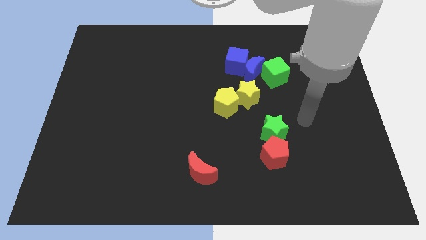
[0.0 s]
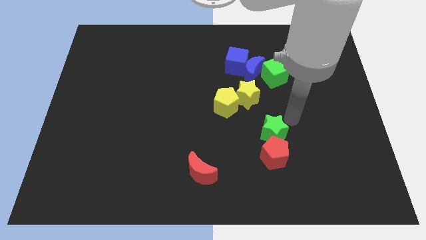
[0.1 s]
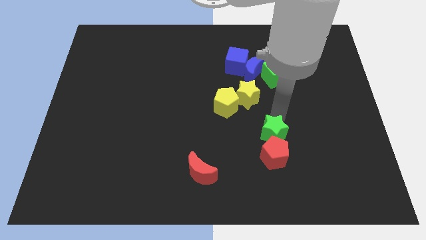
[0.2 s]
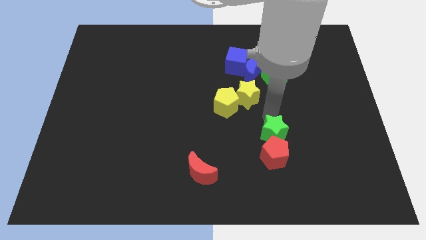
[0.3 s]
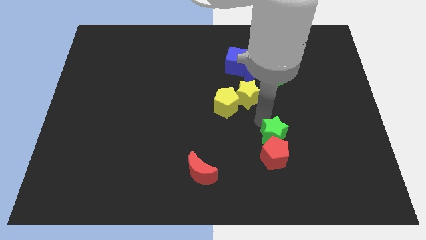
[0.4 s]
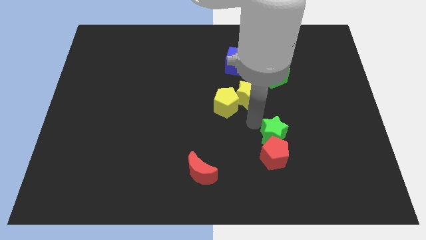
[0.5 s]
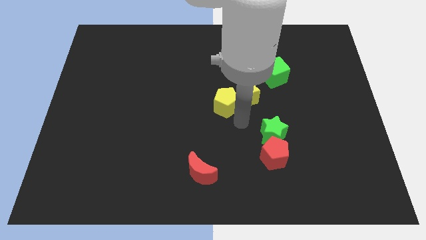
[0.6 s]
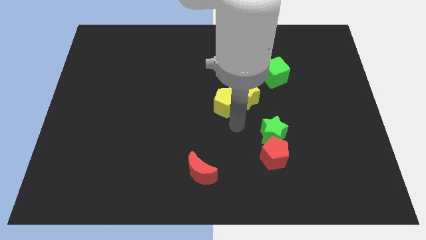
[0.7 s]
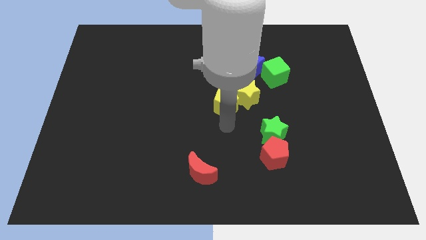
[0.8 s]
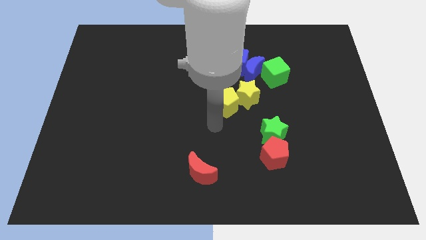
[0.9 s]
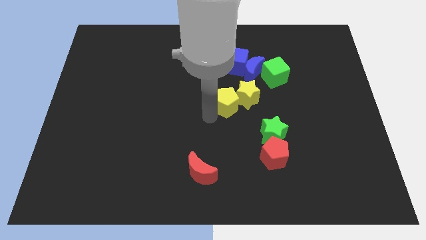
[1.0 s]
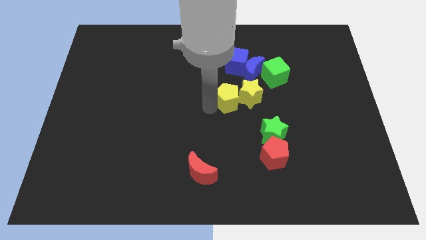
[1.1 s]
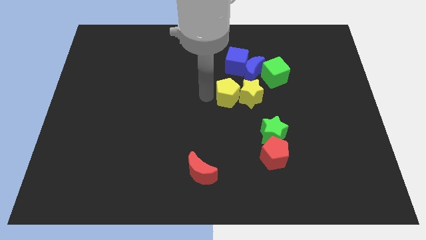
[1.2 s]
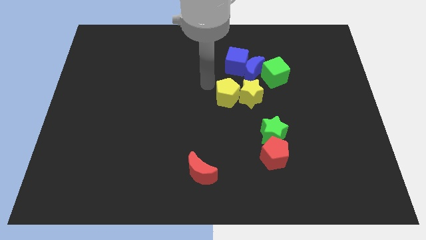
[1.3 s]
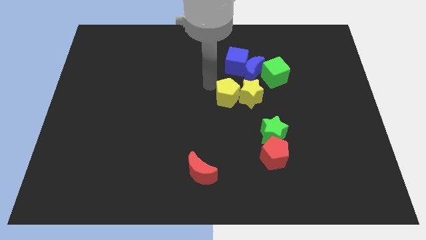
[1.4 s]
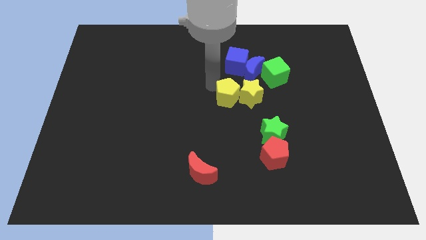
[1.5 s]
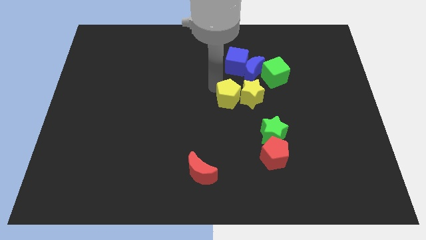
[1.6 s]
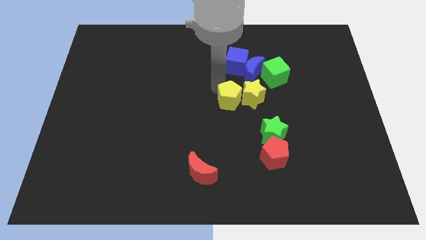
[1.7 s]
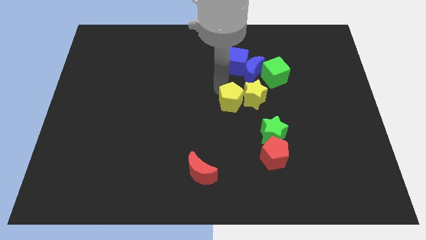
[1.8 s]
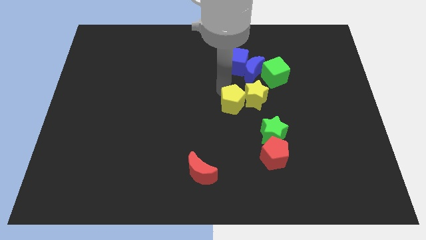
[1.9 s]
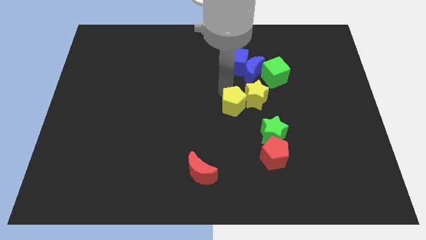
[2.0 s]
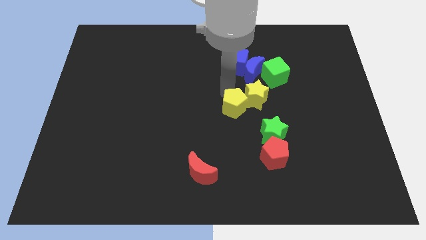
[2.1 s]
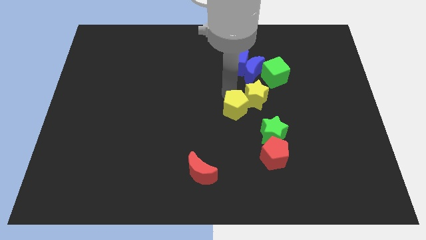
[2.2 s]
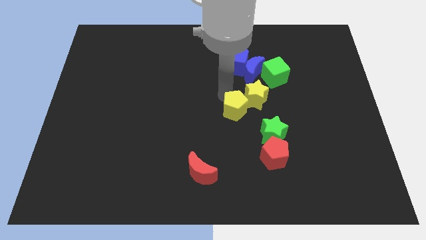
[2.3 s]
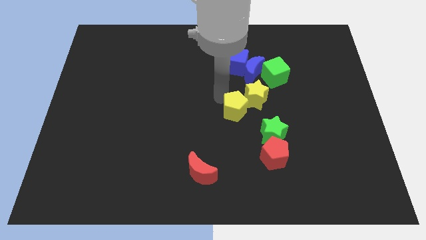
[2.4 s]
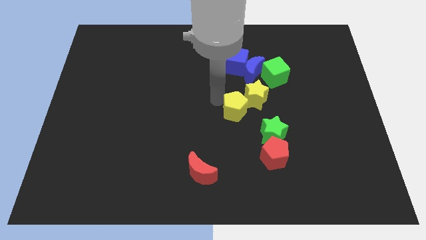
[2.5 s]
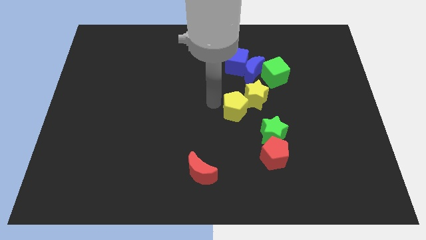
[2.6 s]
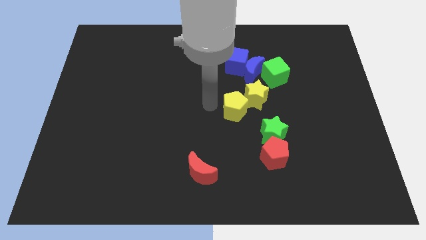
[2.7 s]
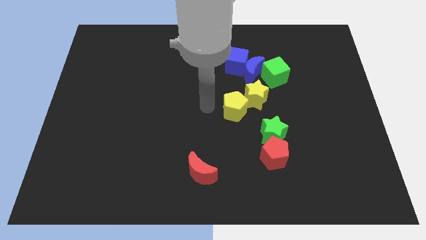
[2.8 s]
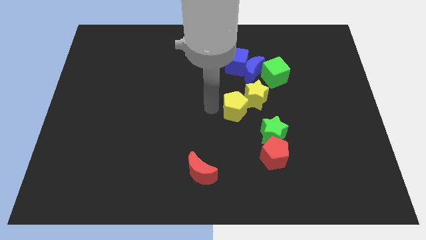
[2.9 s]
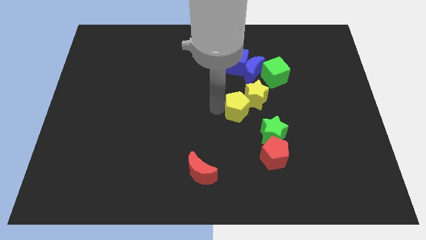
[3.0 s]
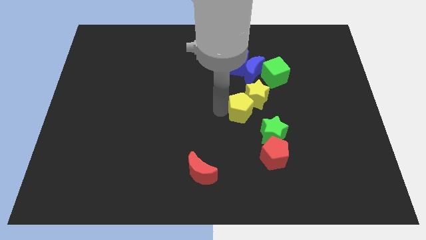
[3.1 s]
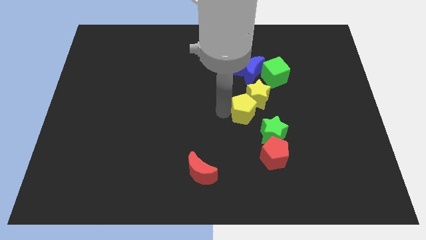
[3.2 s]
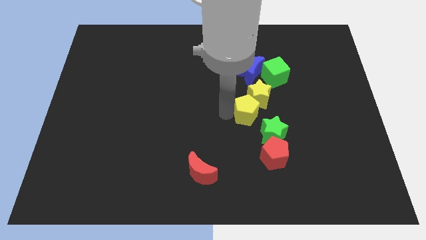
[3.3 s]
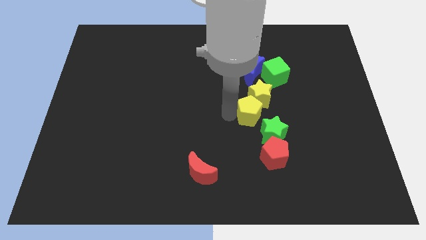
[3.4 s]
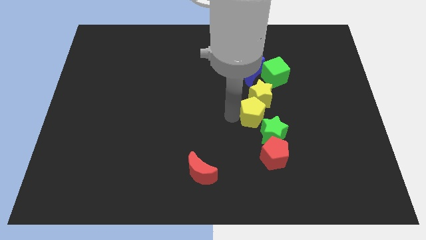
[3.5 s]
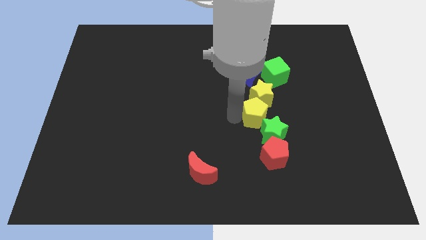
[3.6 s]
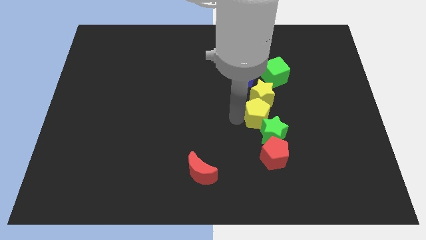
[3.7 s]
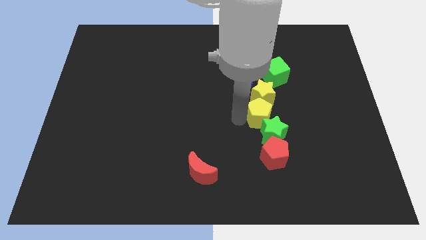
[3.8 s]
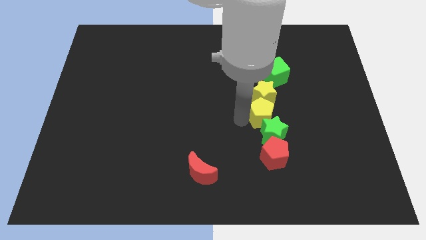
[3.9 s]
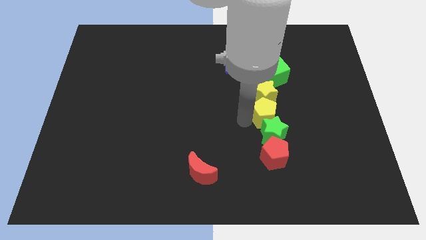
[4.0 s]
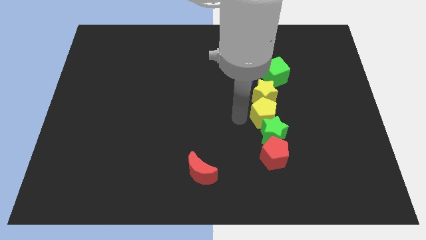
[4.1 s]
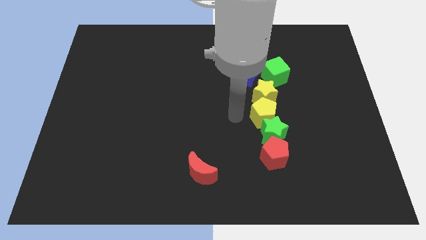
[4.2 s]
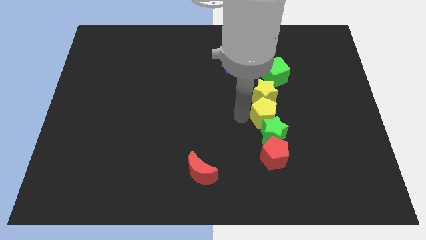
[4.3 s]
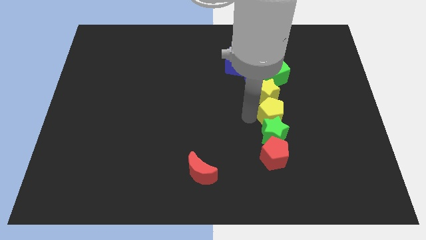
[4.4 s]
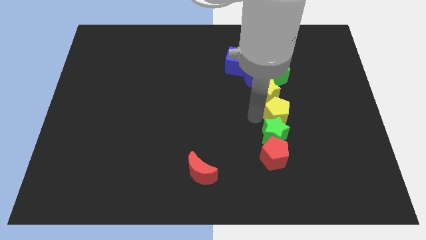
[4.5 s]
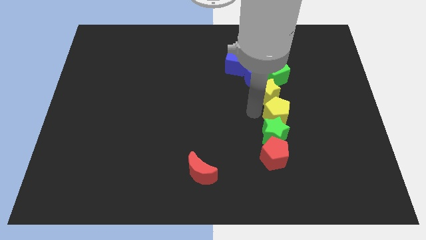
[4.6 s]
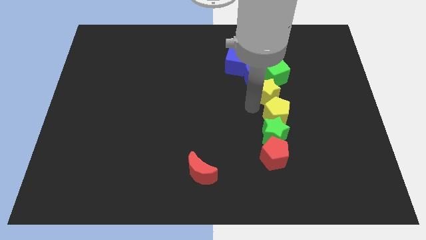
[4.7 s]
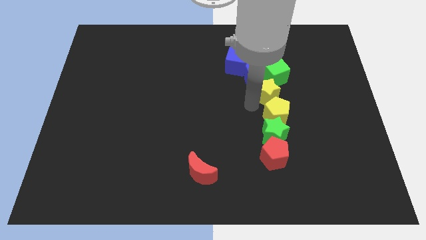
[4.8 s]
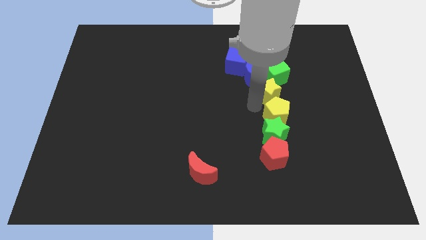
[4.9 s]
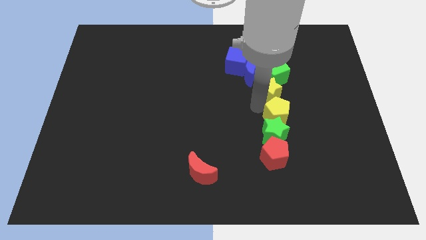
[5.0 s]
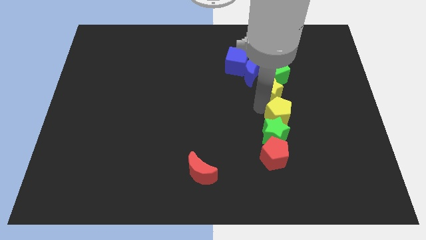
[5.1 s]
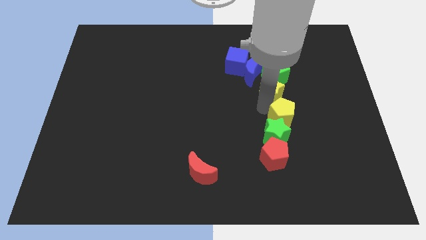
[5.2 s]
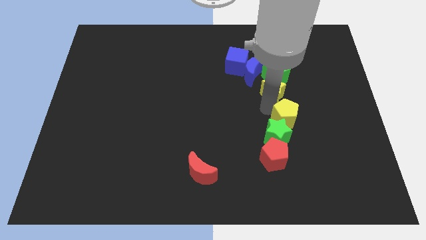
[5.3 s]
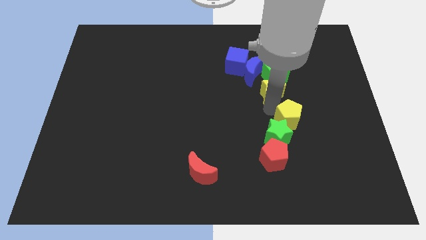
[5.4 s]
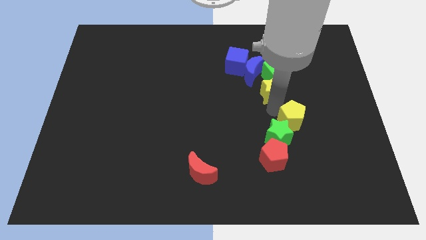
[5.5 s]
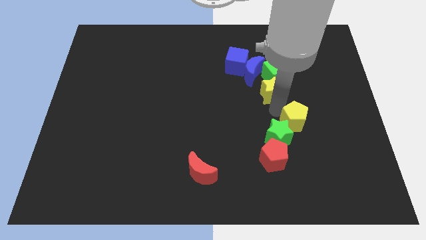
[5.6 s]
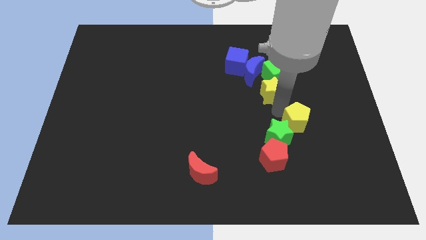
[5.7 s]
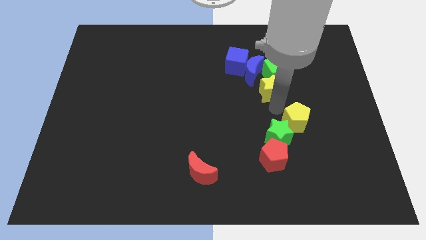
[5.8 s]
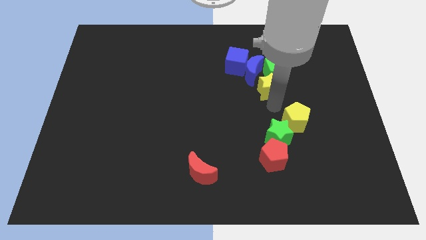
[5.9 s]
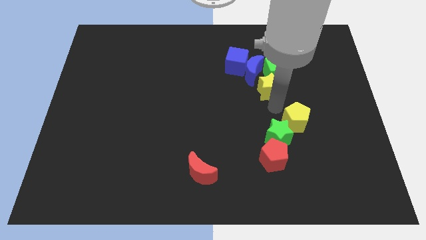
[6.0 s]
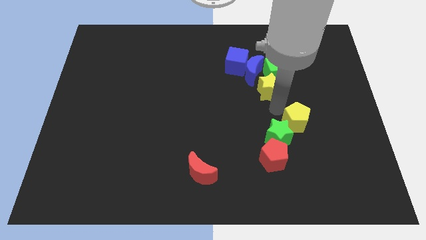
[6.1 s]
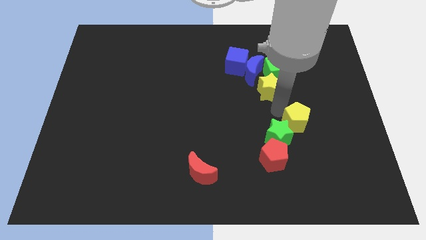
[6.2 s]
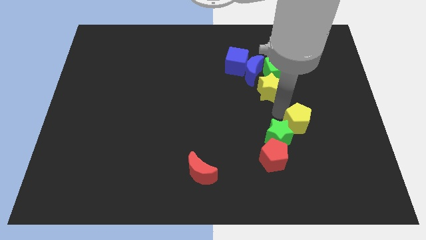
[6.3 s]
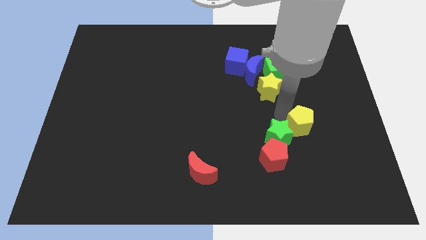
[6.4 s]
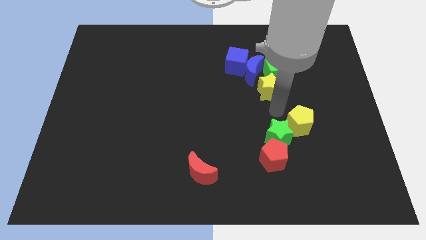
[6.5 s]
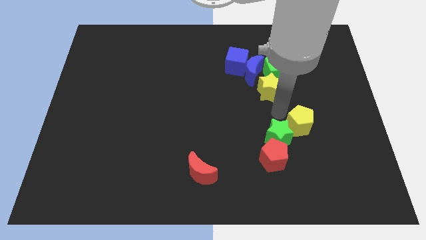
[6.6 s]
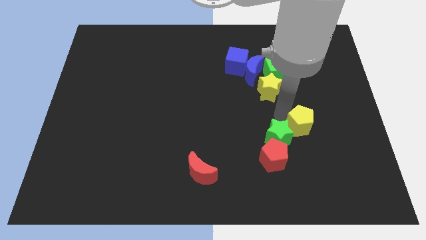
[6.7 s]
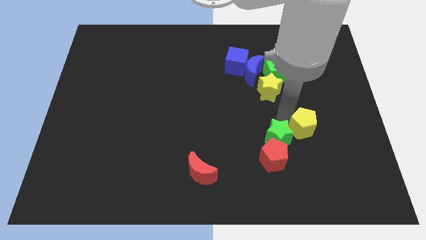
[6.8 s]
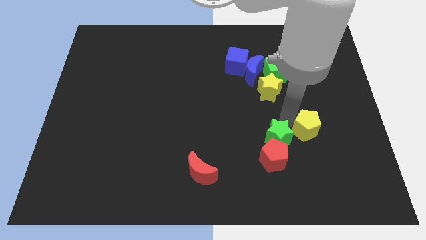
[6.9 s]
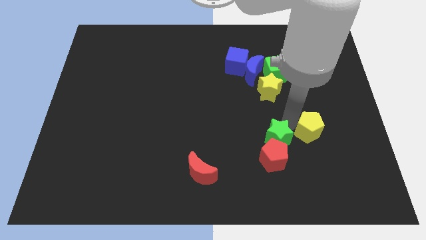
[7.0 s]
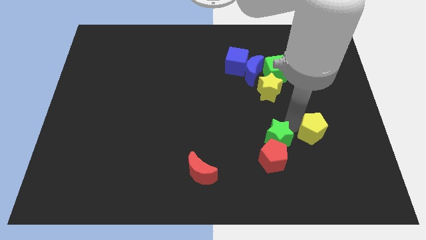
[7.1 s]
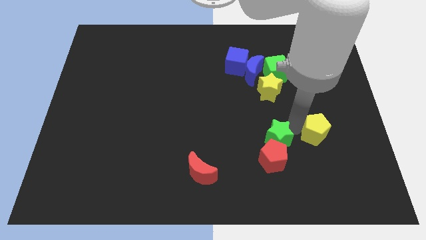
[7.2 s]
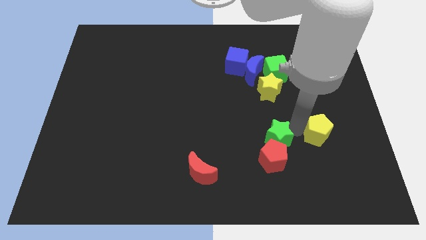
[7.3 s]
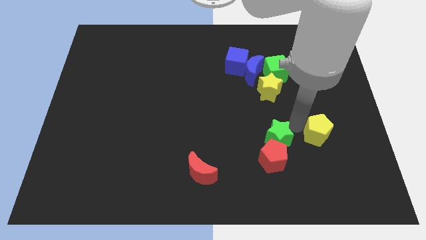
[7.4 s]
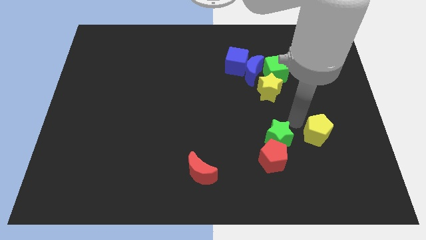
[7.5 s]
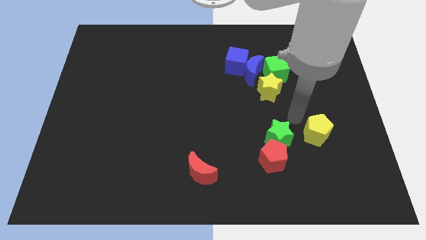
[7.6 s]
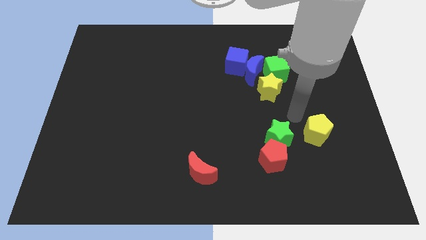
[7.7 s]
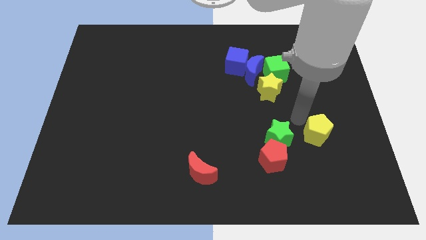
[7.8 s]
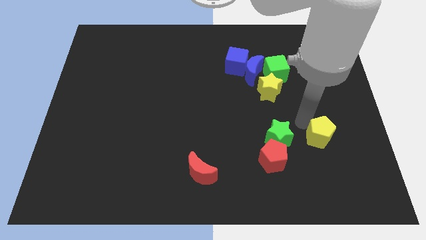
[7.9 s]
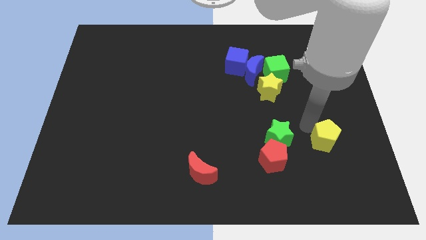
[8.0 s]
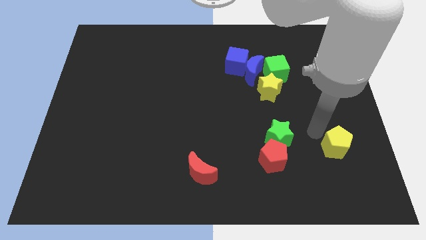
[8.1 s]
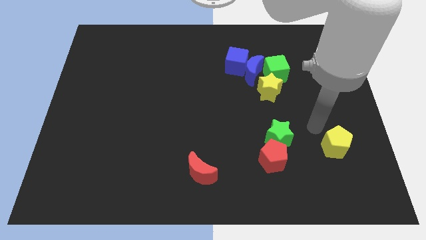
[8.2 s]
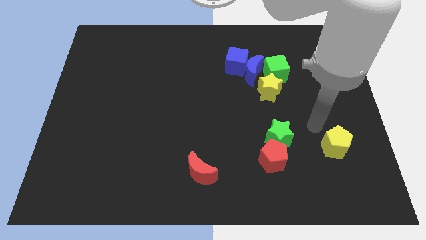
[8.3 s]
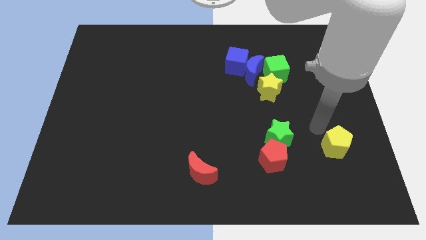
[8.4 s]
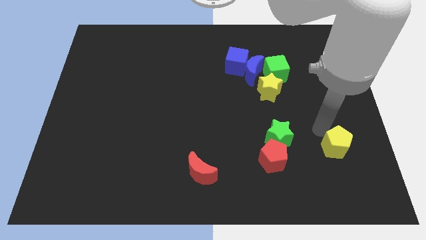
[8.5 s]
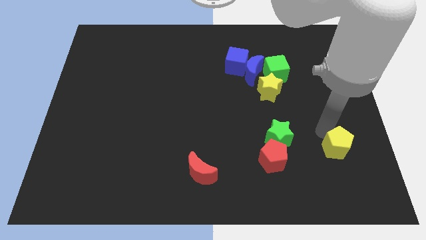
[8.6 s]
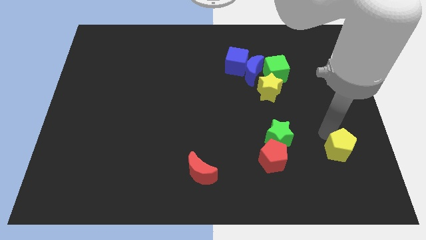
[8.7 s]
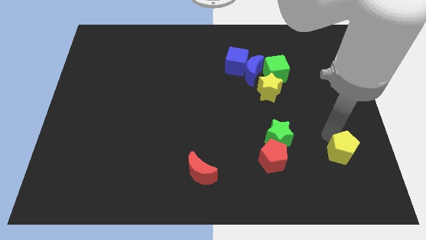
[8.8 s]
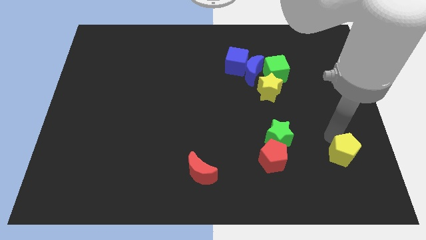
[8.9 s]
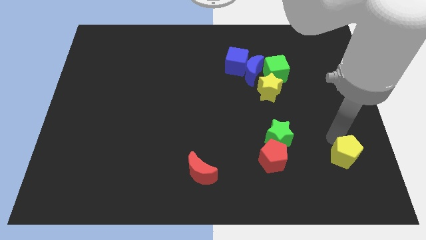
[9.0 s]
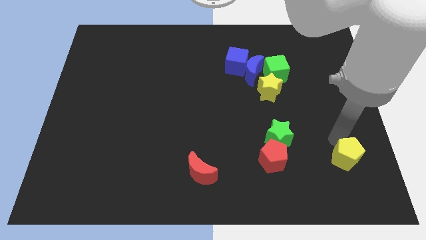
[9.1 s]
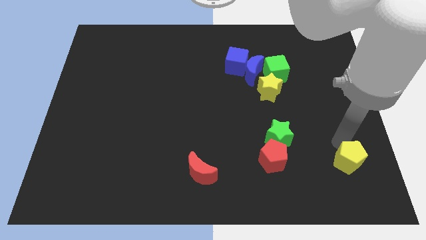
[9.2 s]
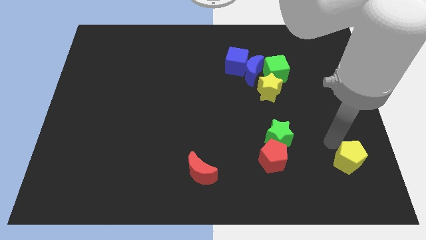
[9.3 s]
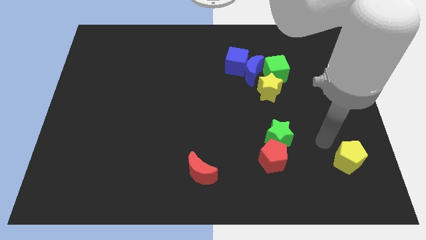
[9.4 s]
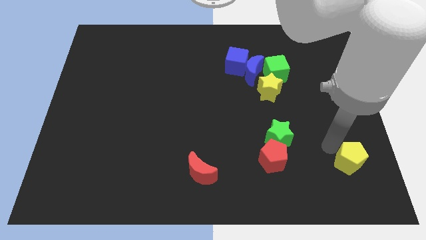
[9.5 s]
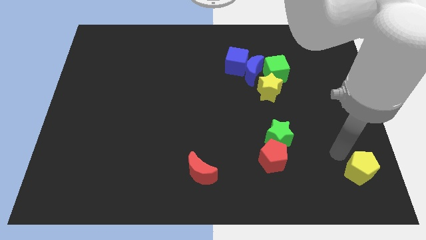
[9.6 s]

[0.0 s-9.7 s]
push the yellow pentagon to the bottom right of the board
